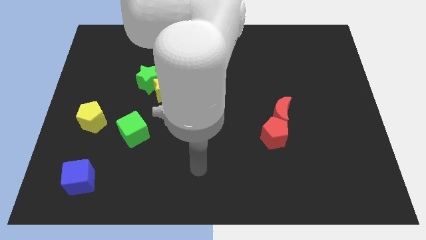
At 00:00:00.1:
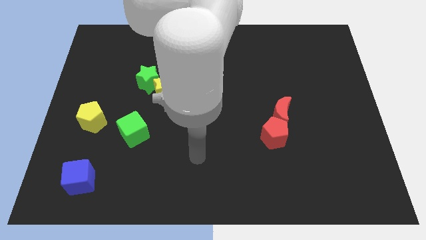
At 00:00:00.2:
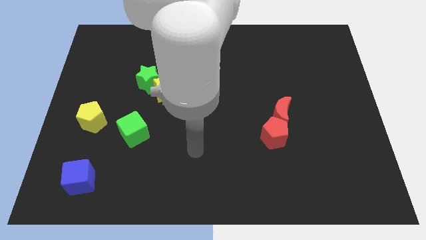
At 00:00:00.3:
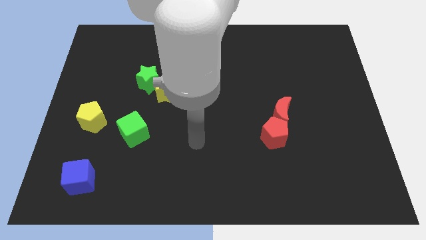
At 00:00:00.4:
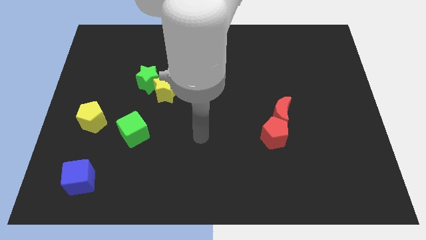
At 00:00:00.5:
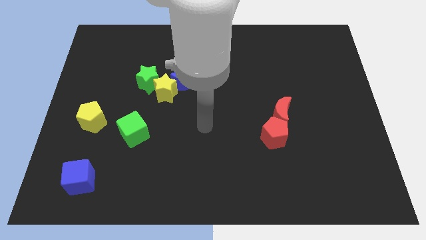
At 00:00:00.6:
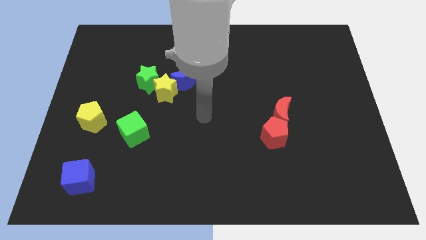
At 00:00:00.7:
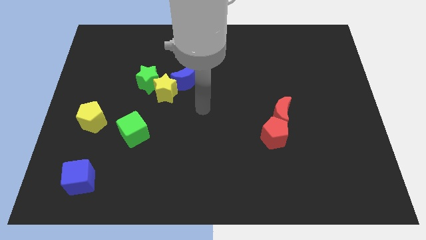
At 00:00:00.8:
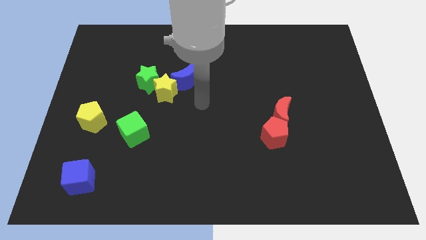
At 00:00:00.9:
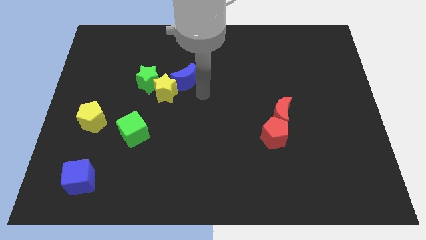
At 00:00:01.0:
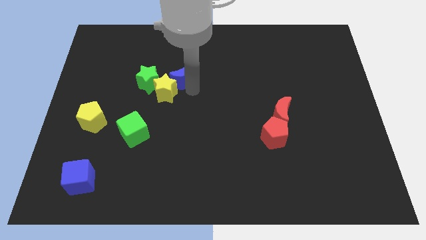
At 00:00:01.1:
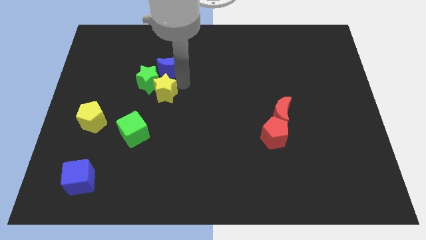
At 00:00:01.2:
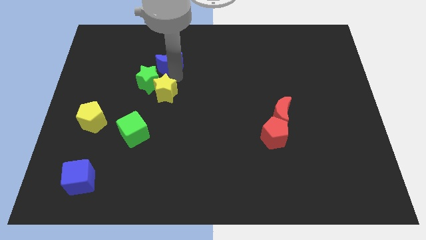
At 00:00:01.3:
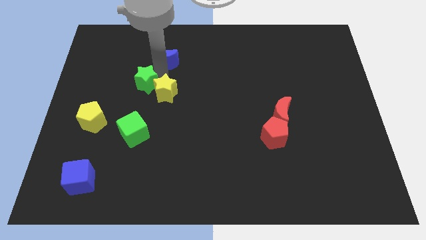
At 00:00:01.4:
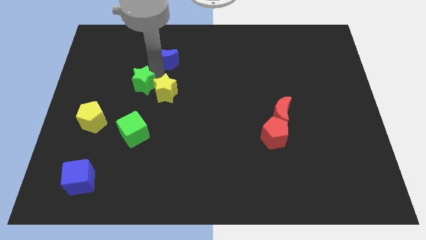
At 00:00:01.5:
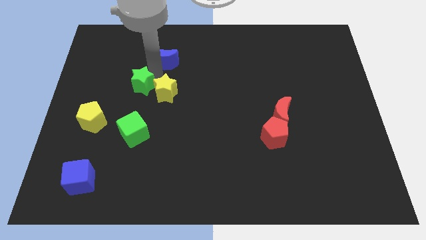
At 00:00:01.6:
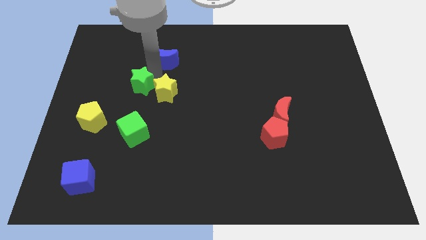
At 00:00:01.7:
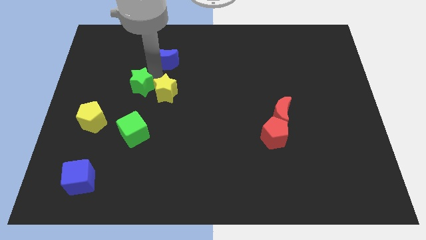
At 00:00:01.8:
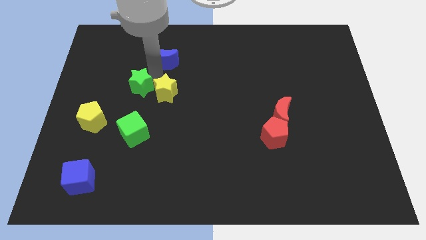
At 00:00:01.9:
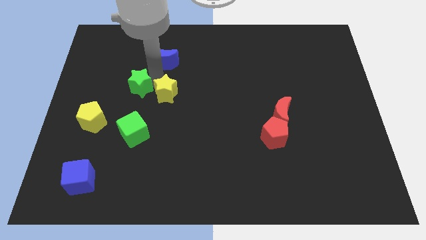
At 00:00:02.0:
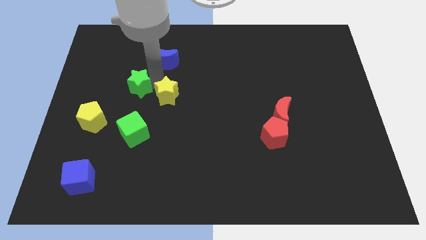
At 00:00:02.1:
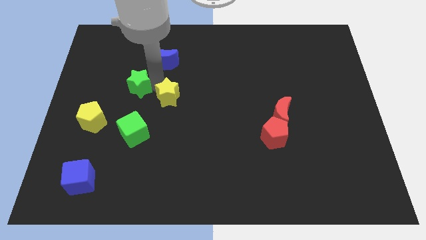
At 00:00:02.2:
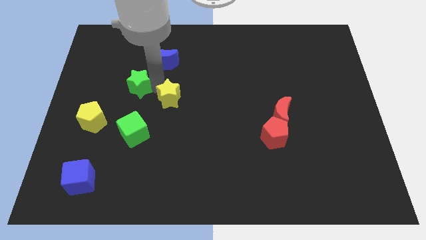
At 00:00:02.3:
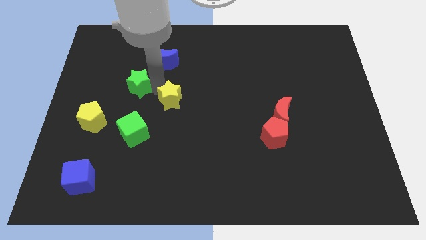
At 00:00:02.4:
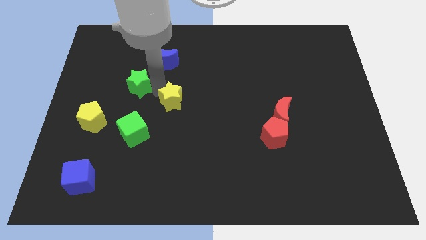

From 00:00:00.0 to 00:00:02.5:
move the yellow star away from the green star and blue moon

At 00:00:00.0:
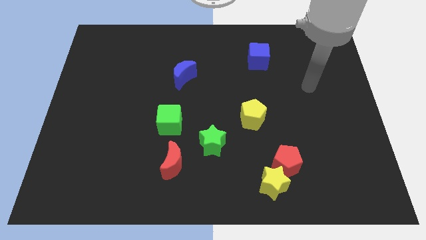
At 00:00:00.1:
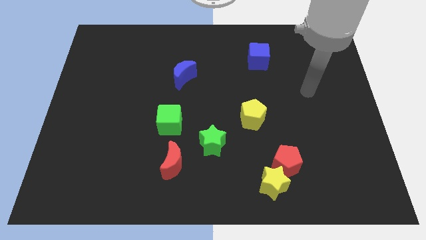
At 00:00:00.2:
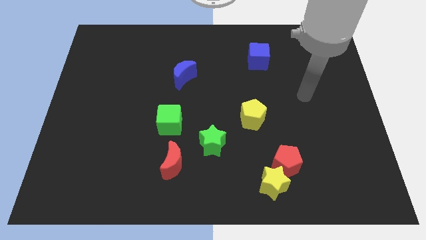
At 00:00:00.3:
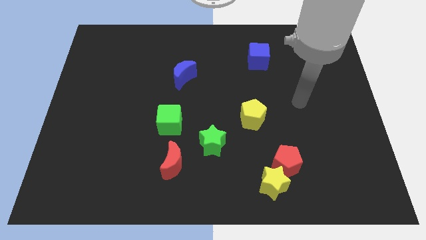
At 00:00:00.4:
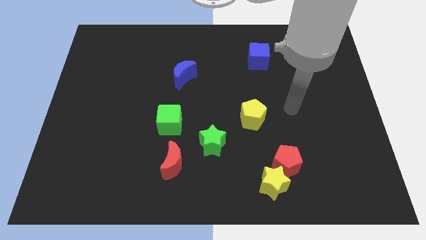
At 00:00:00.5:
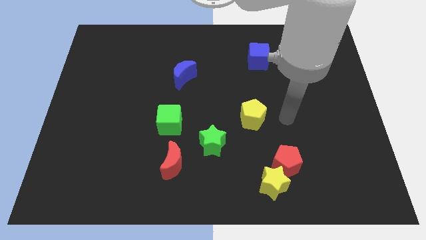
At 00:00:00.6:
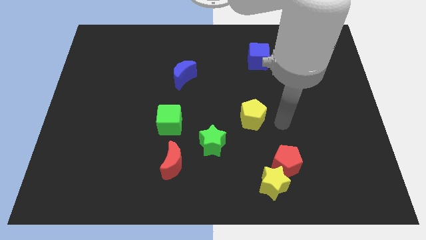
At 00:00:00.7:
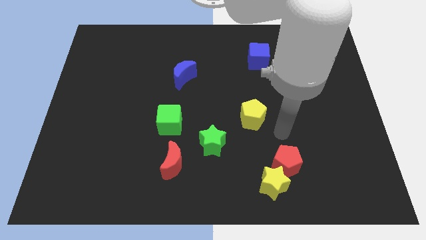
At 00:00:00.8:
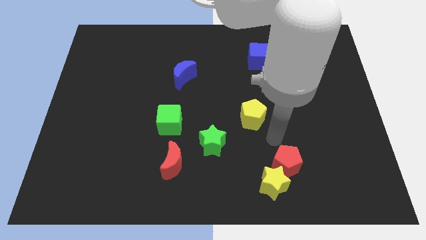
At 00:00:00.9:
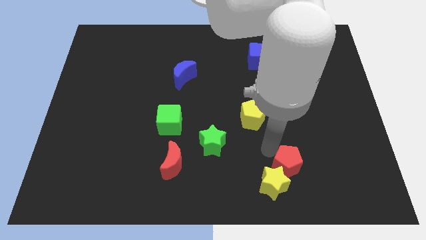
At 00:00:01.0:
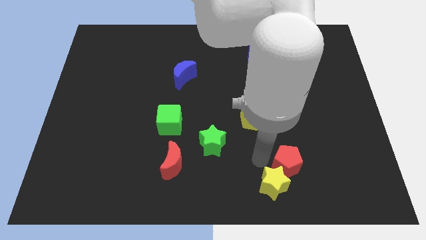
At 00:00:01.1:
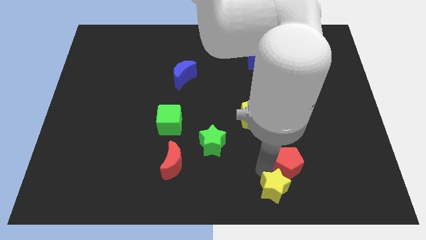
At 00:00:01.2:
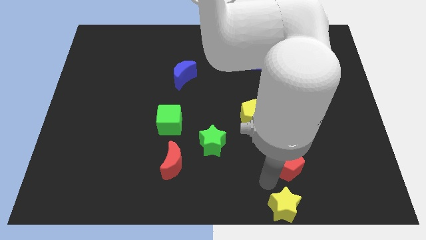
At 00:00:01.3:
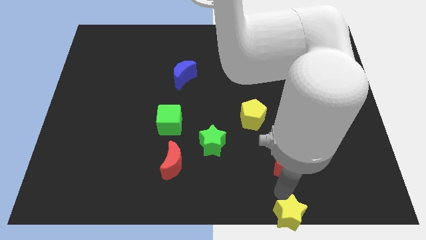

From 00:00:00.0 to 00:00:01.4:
separate the red pentagon from the yellow star

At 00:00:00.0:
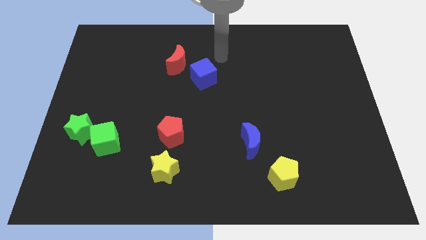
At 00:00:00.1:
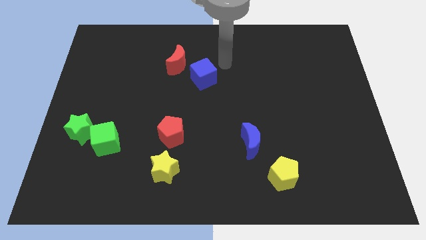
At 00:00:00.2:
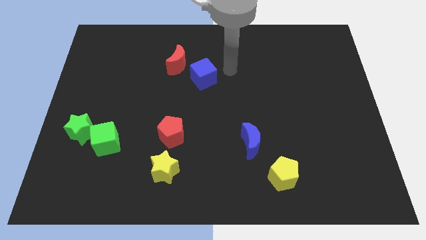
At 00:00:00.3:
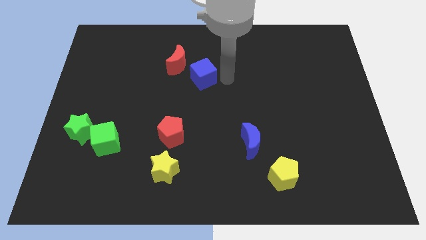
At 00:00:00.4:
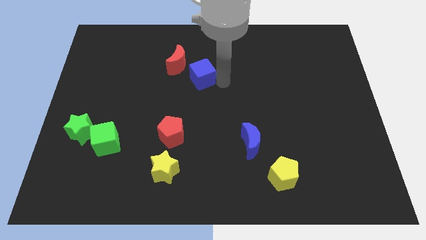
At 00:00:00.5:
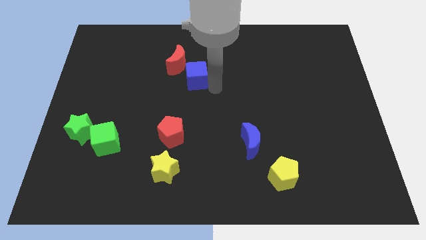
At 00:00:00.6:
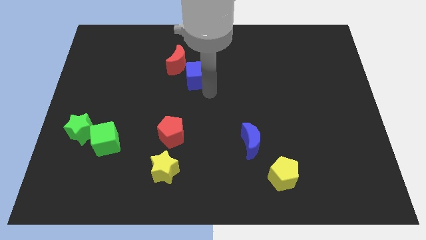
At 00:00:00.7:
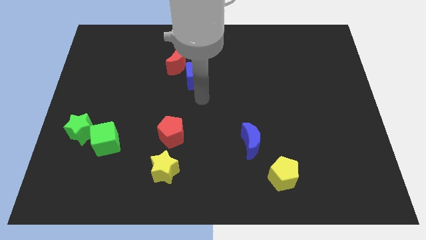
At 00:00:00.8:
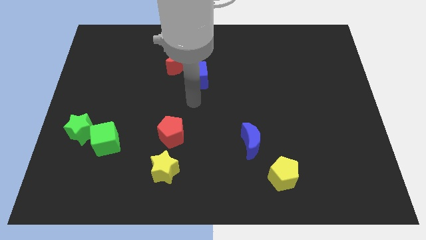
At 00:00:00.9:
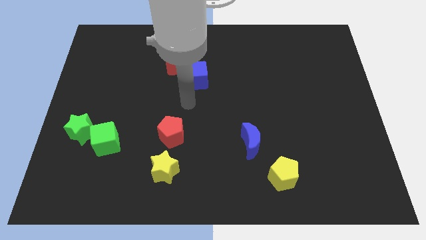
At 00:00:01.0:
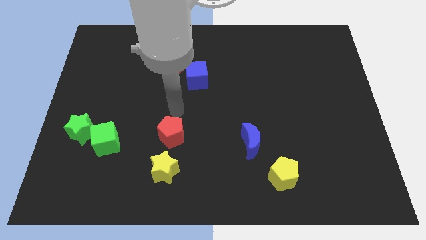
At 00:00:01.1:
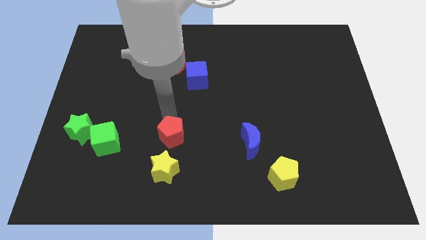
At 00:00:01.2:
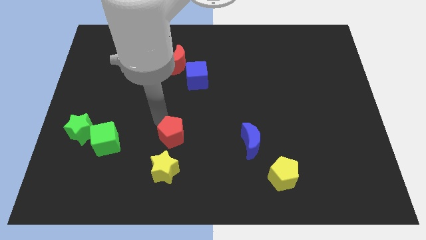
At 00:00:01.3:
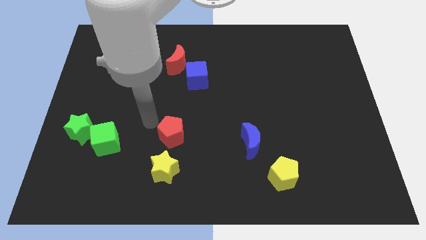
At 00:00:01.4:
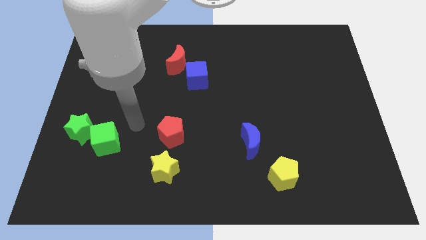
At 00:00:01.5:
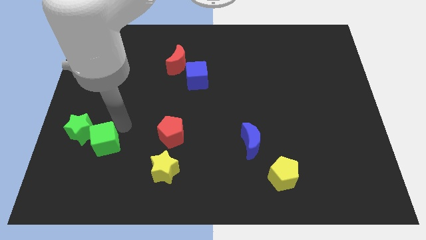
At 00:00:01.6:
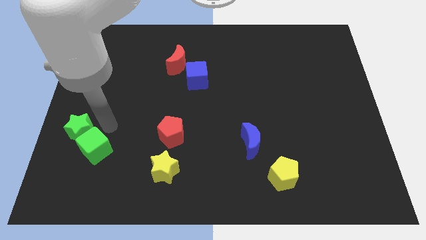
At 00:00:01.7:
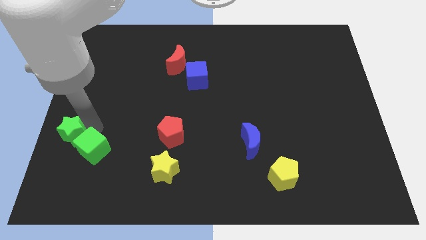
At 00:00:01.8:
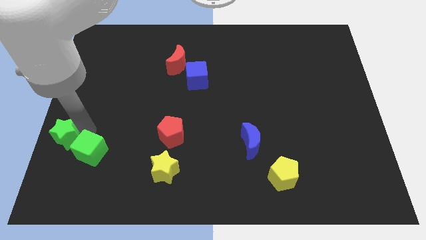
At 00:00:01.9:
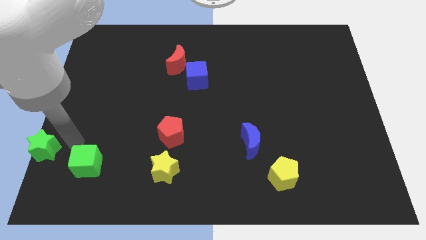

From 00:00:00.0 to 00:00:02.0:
pull the green cube apart from the green star

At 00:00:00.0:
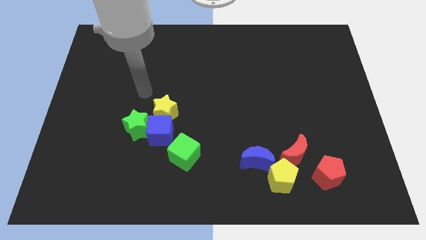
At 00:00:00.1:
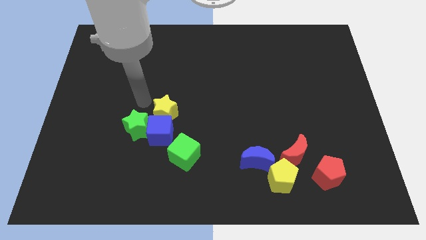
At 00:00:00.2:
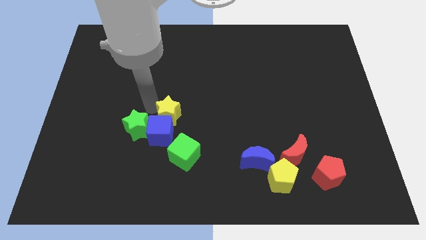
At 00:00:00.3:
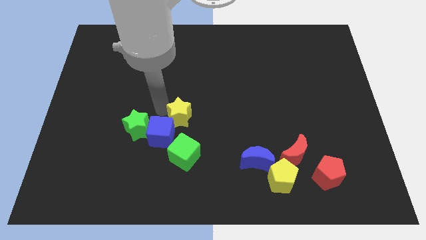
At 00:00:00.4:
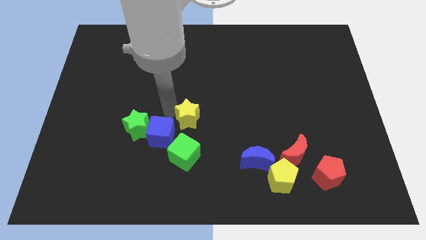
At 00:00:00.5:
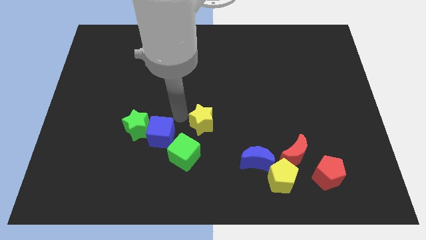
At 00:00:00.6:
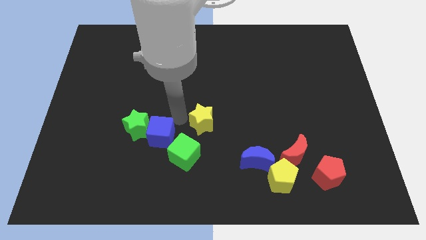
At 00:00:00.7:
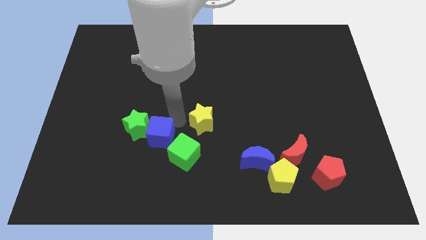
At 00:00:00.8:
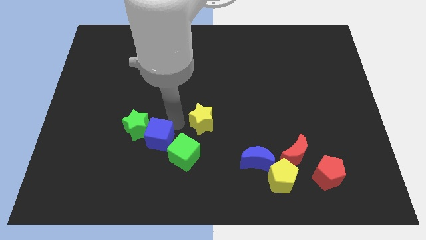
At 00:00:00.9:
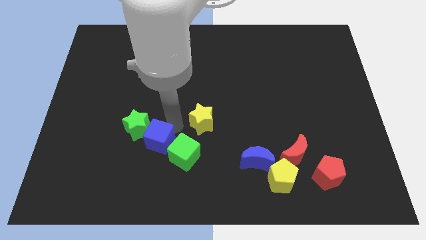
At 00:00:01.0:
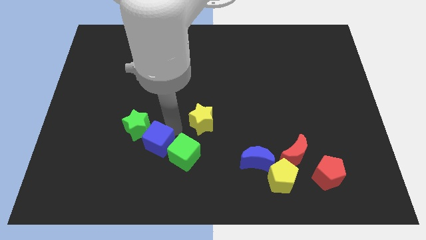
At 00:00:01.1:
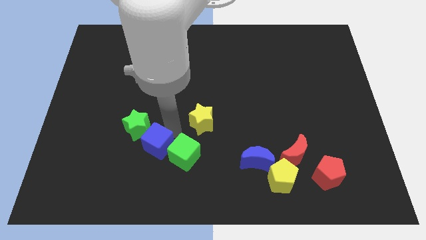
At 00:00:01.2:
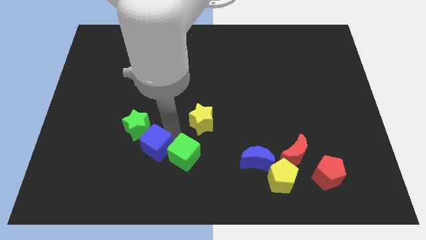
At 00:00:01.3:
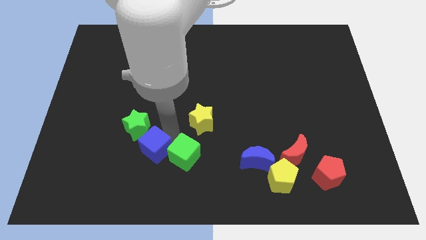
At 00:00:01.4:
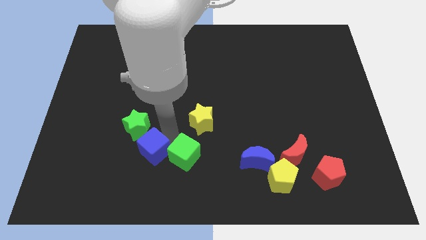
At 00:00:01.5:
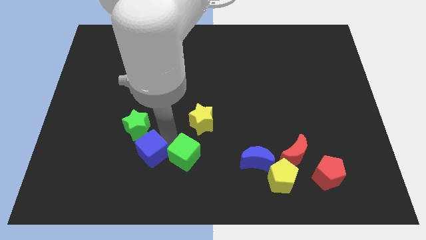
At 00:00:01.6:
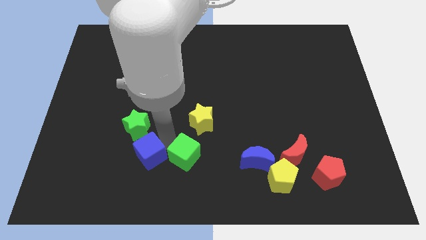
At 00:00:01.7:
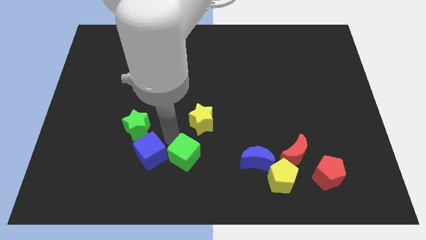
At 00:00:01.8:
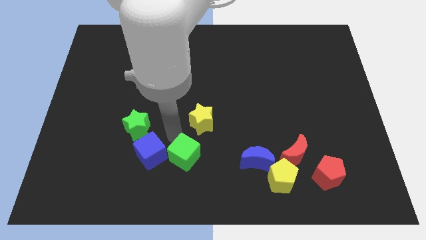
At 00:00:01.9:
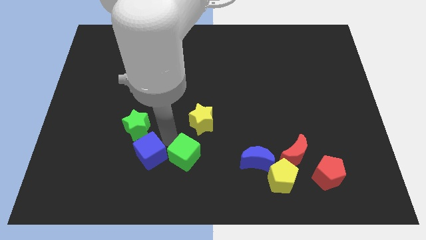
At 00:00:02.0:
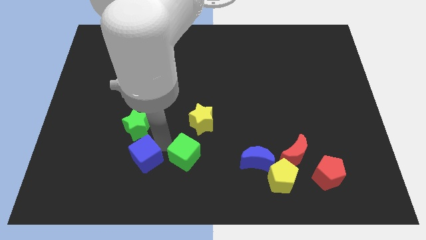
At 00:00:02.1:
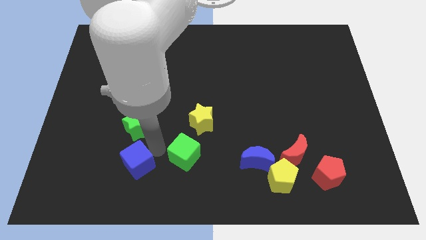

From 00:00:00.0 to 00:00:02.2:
separate the blue cube from the group of blocks

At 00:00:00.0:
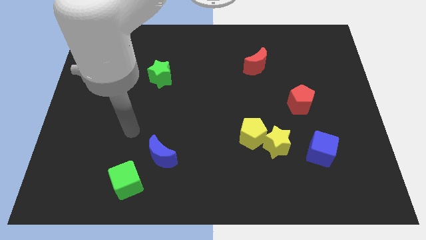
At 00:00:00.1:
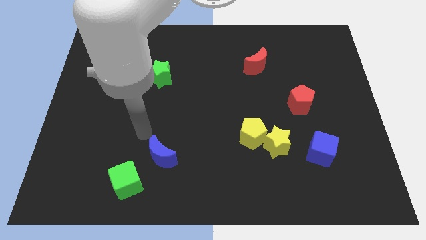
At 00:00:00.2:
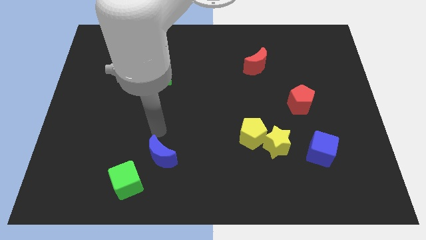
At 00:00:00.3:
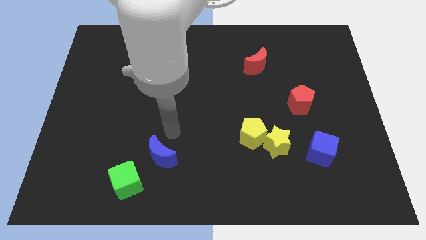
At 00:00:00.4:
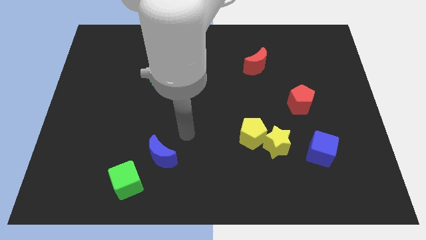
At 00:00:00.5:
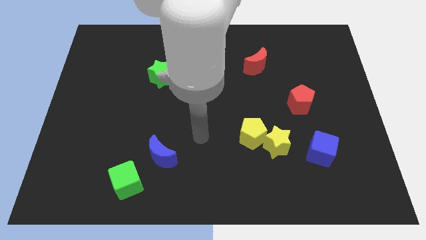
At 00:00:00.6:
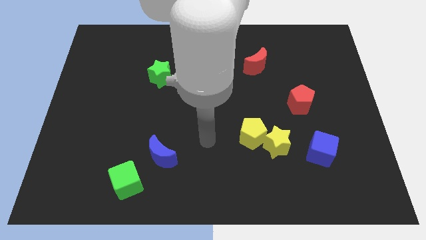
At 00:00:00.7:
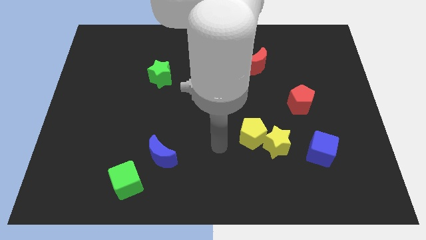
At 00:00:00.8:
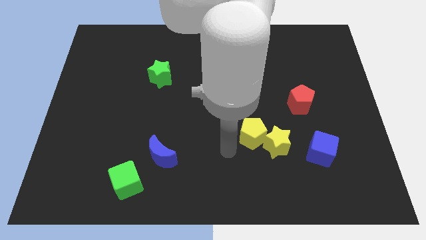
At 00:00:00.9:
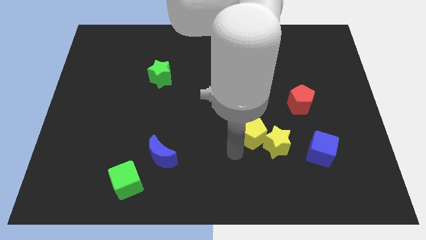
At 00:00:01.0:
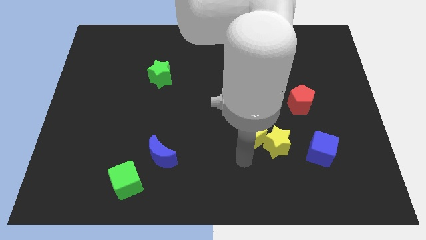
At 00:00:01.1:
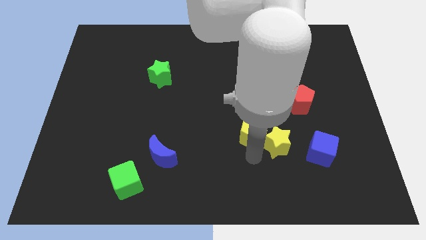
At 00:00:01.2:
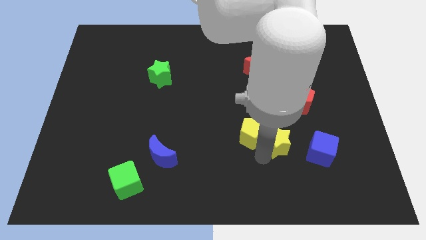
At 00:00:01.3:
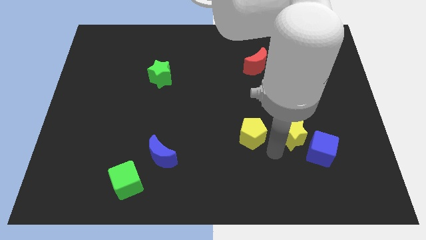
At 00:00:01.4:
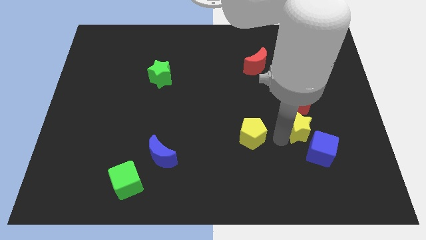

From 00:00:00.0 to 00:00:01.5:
separate the yellow pentagon from the yellow star
